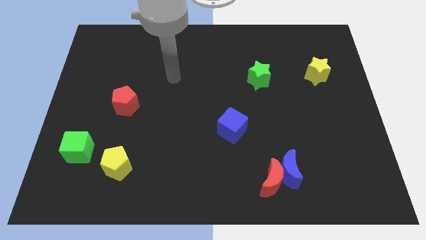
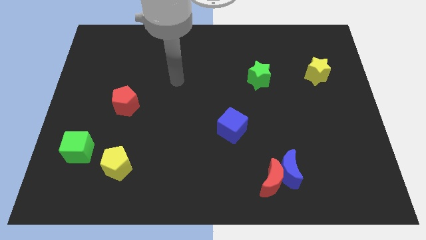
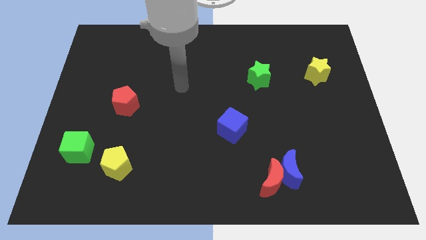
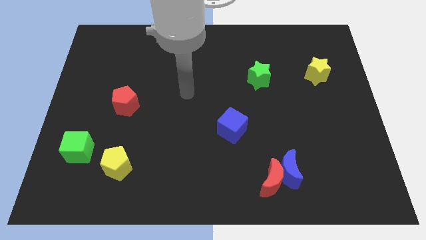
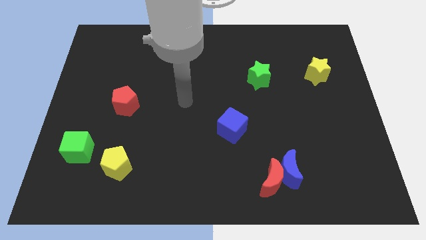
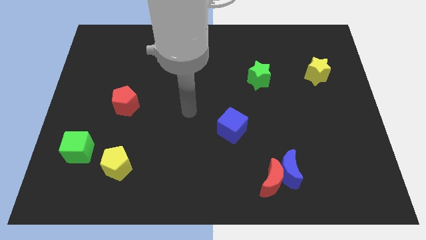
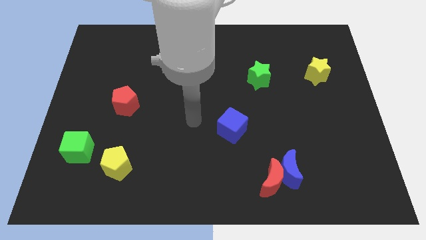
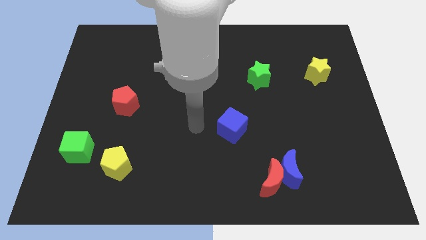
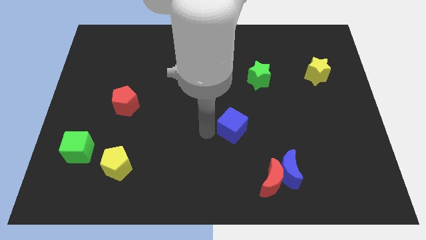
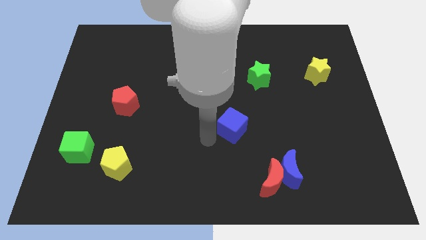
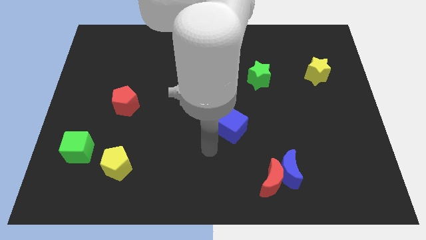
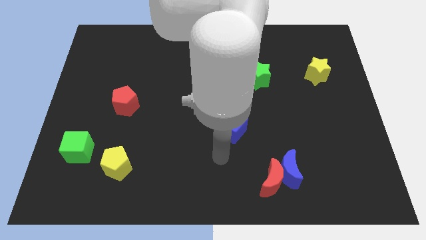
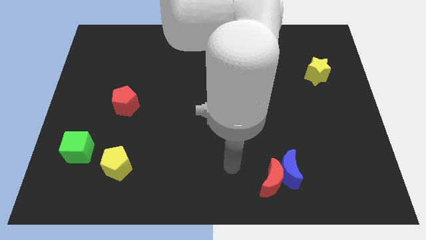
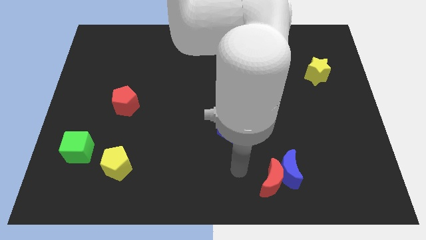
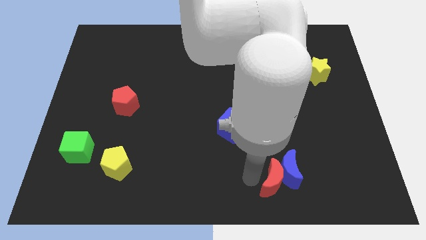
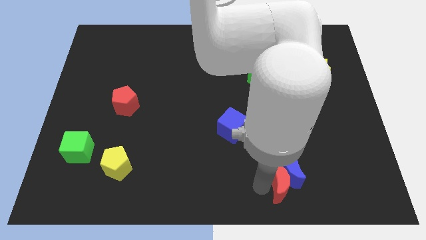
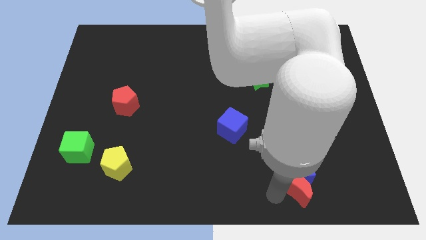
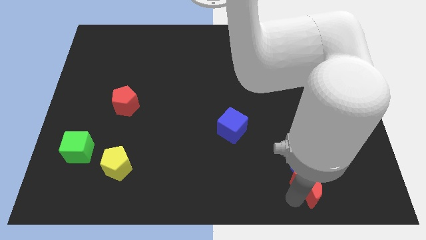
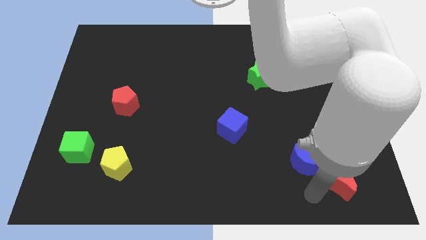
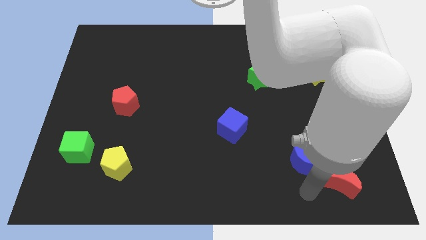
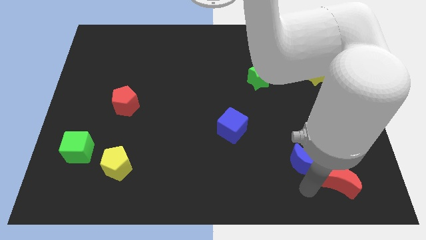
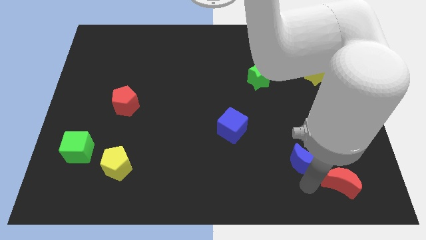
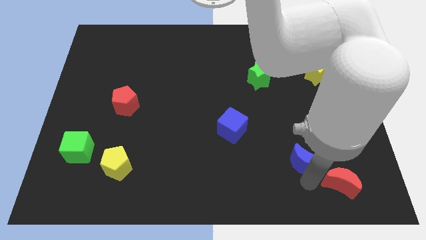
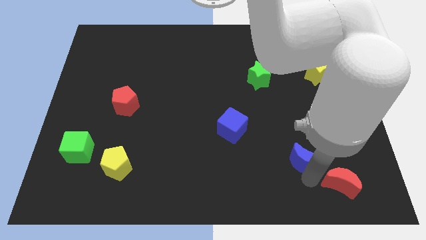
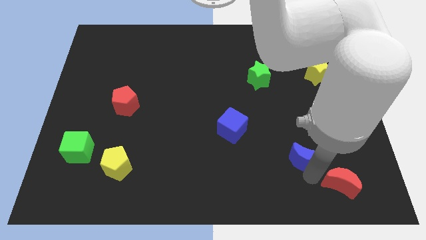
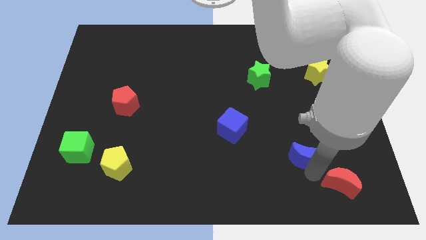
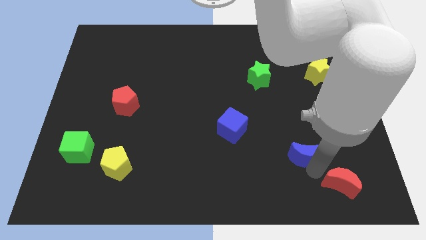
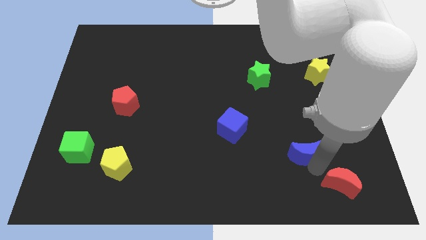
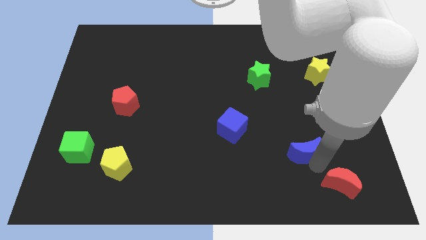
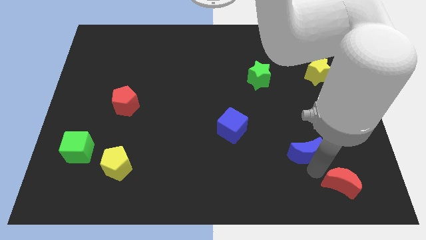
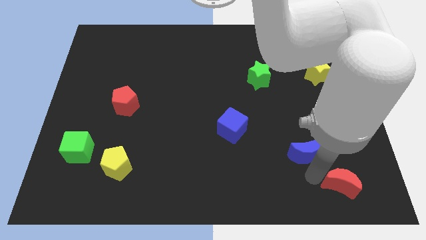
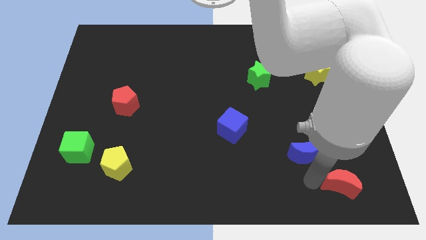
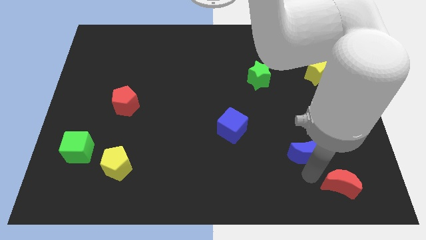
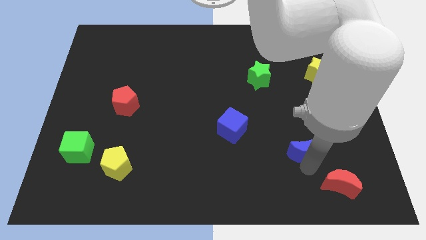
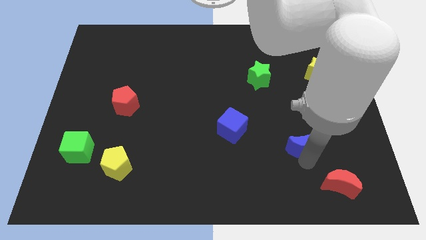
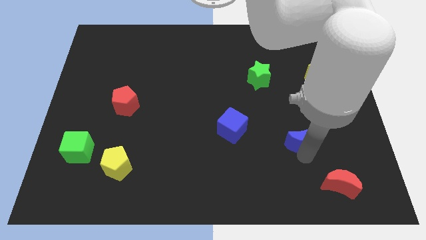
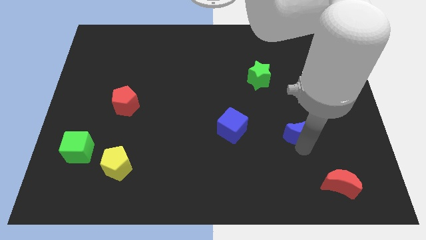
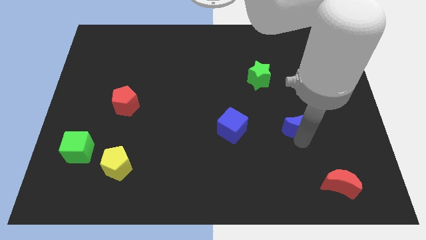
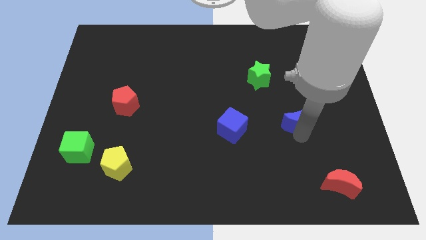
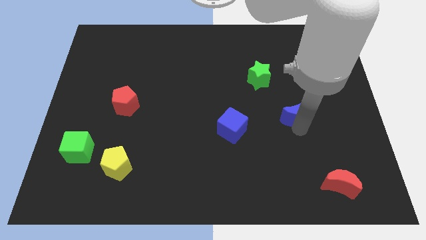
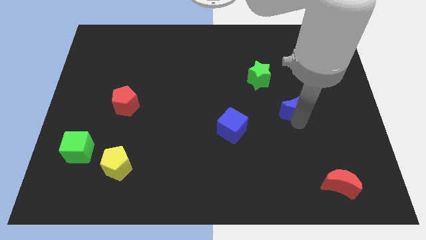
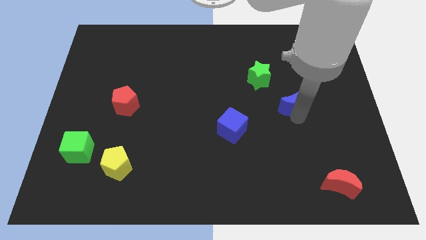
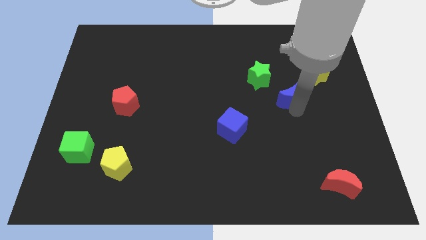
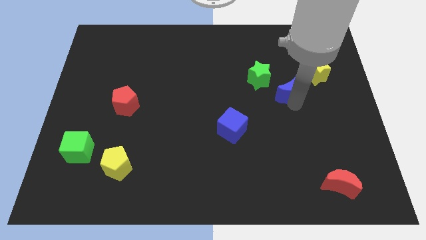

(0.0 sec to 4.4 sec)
push the blue moon up

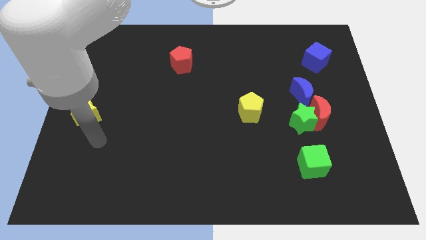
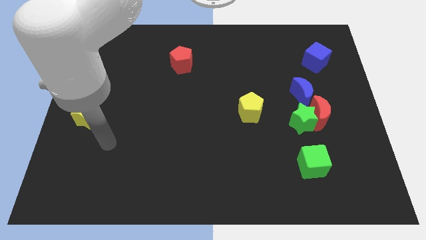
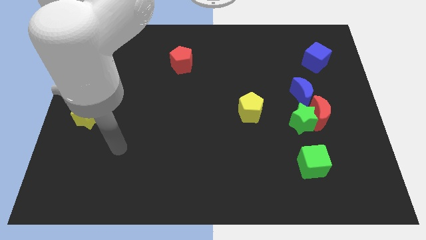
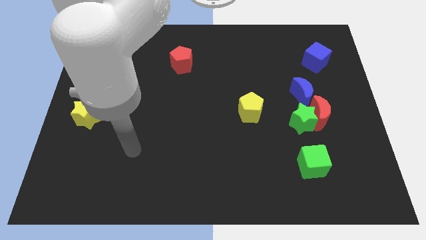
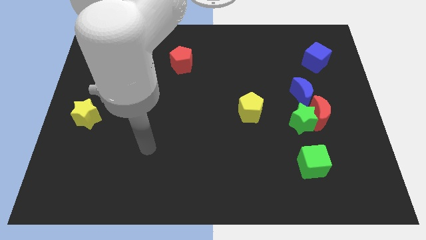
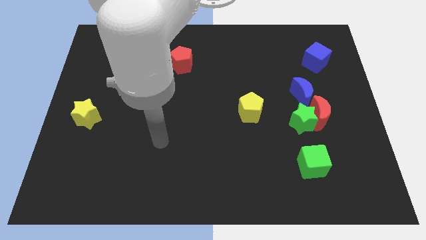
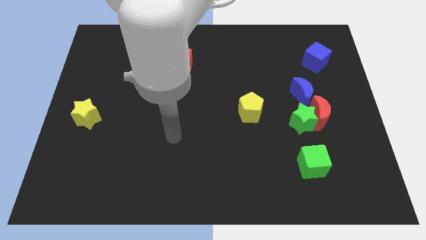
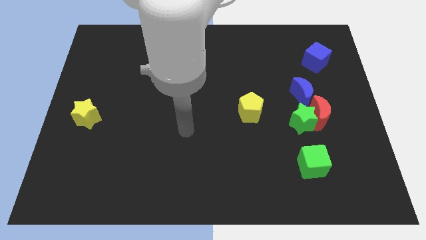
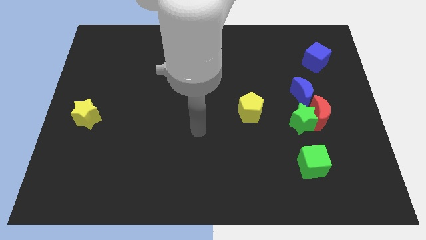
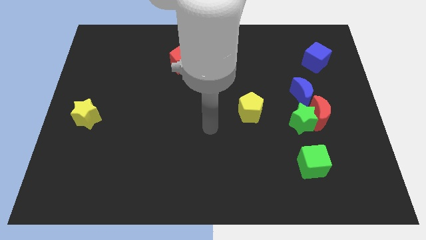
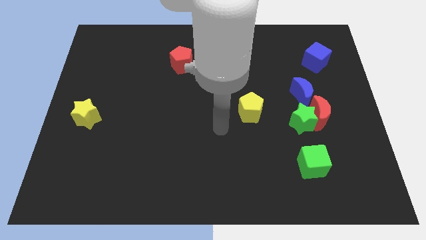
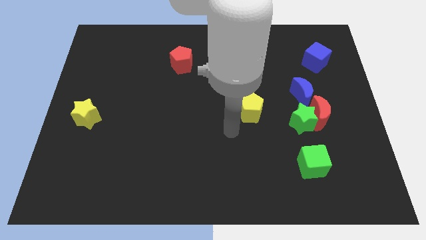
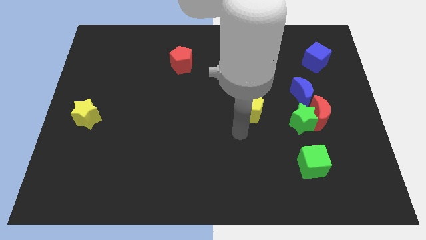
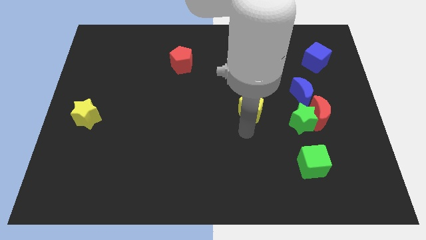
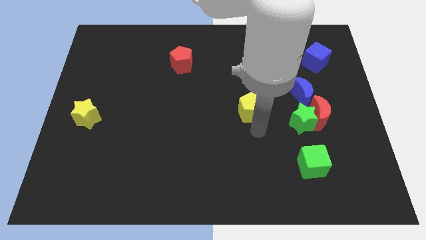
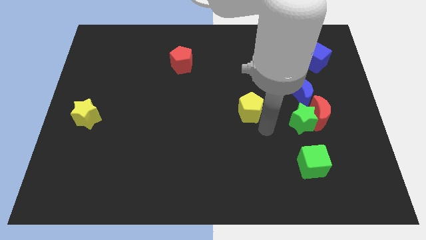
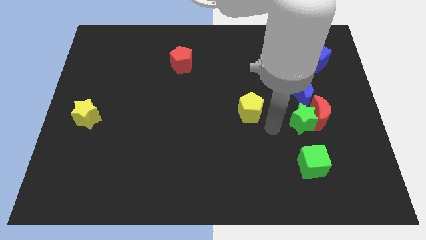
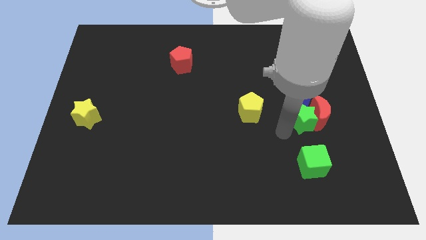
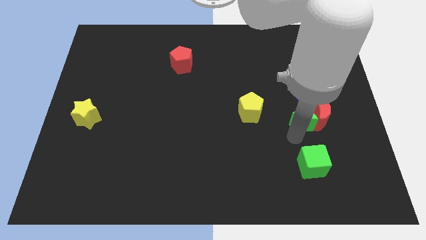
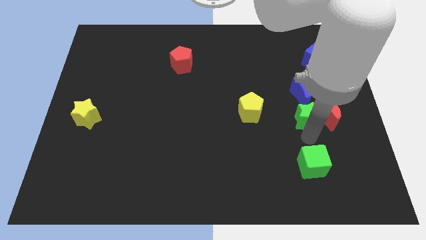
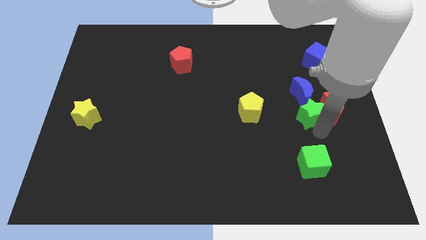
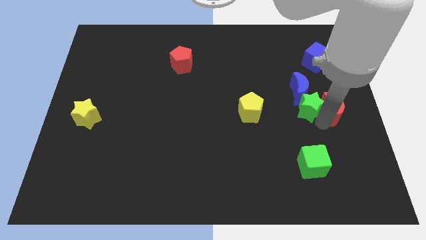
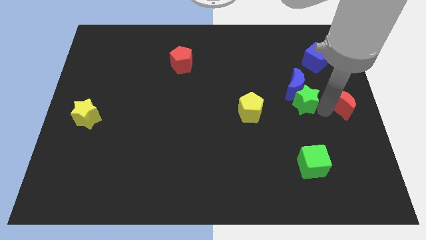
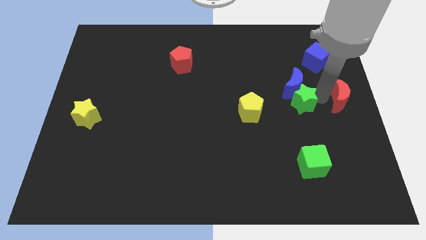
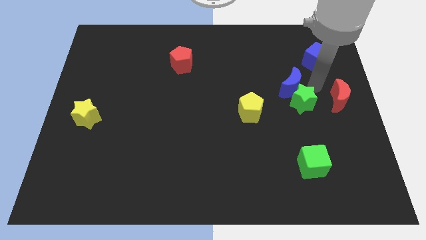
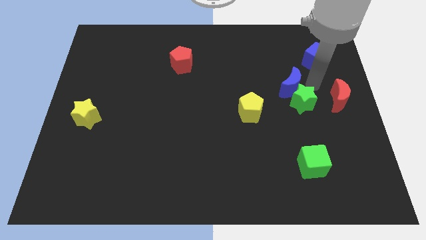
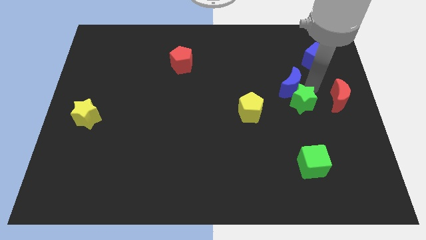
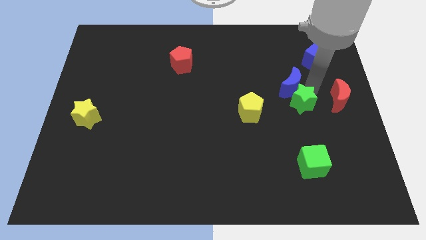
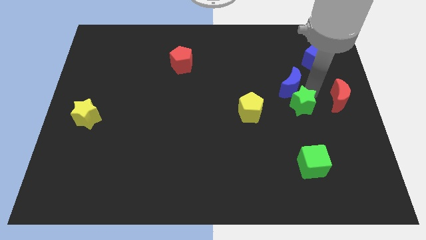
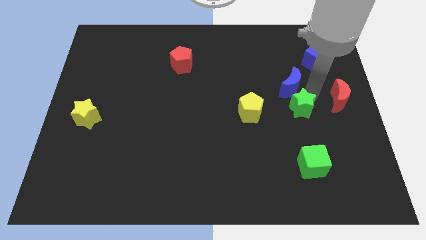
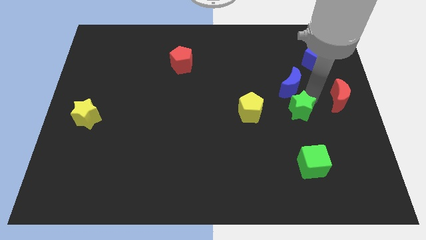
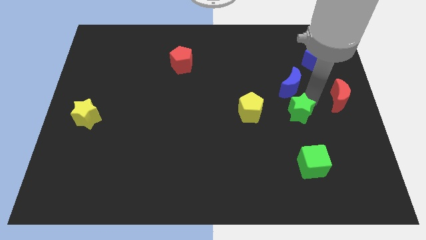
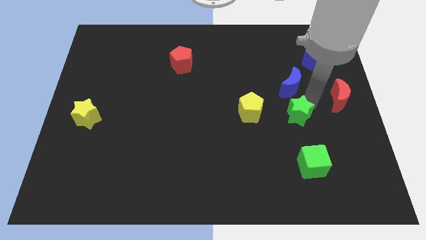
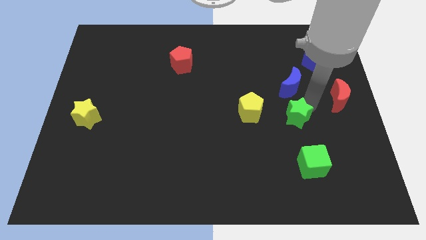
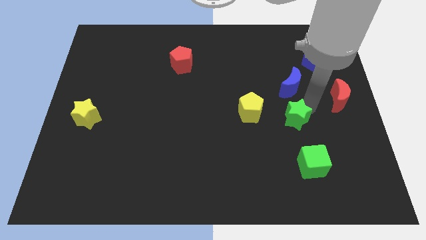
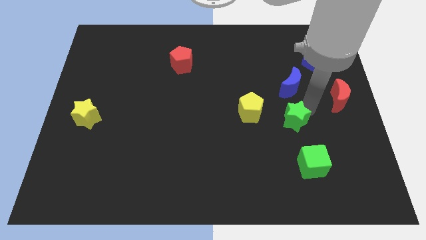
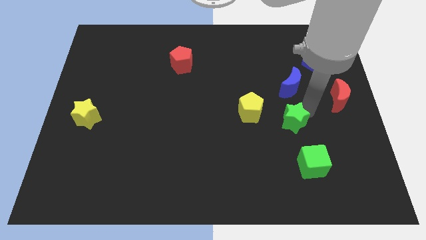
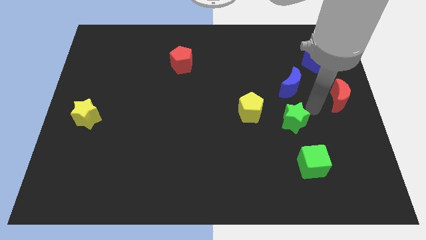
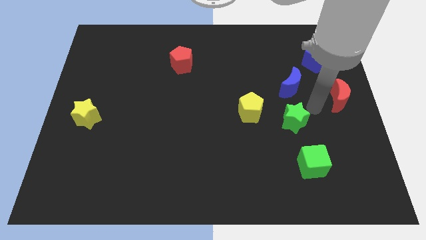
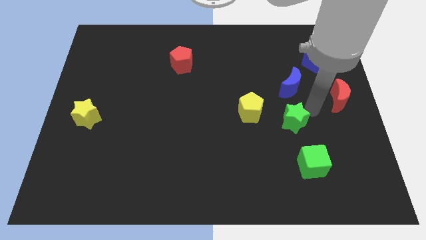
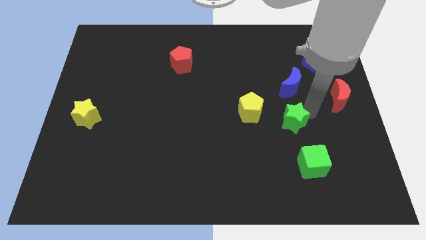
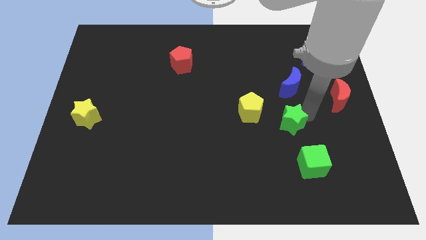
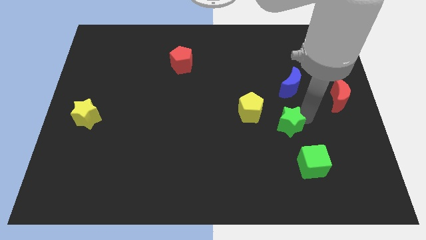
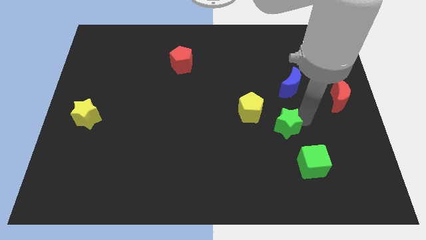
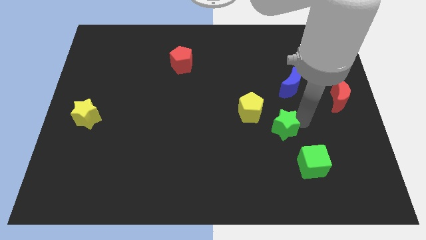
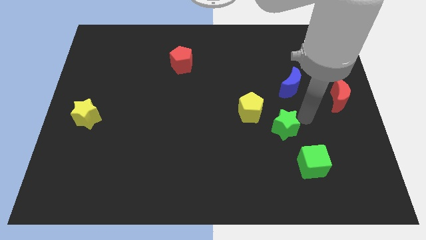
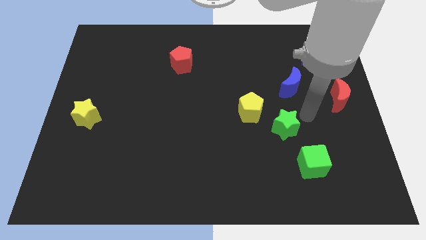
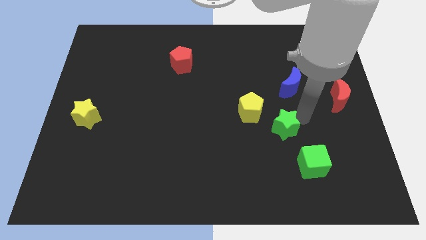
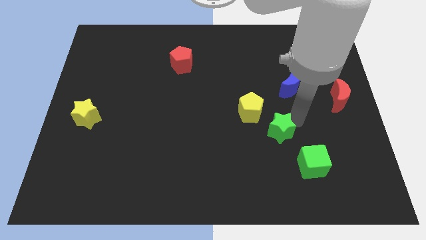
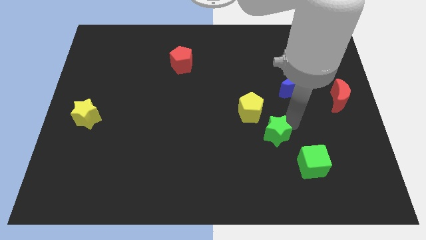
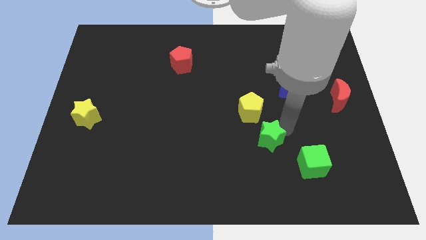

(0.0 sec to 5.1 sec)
slightly move the green star left
